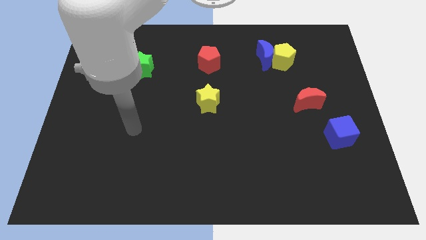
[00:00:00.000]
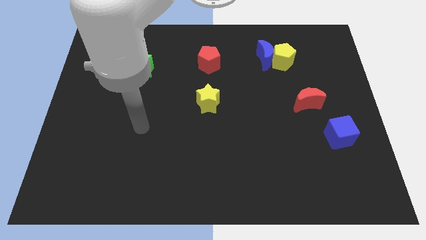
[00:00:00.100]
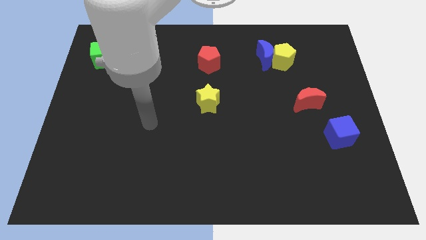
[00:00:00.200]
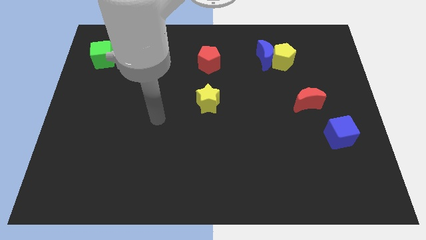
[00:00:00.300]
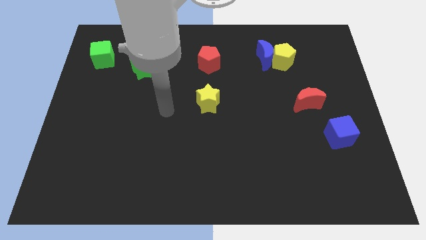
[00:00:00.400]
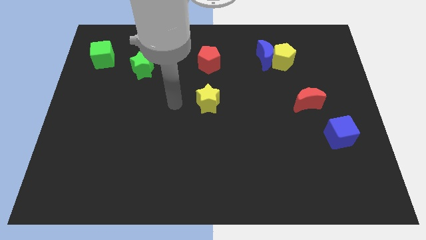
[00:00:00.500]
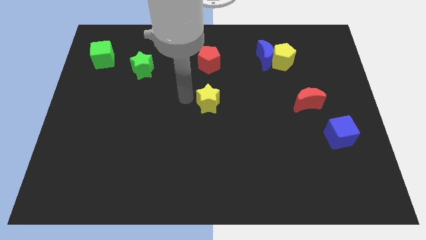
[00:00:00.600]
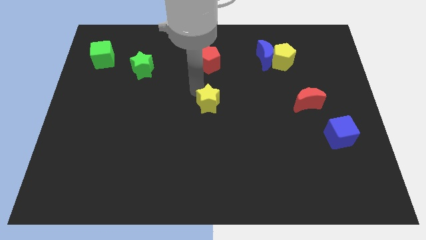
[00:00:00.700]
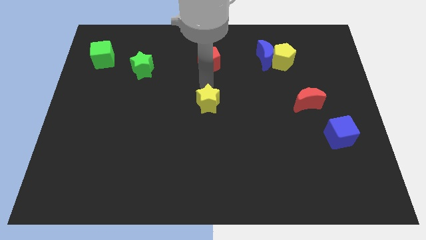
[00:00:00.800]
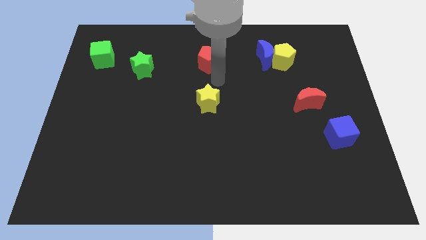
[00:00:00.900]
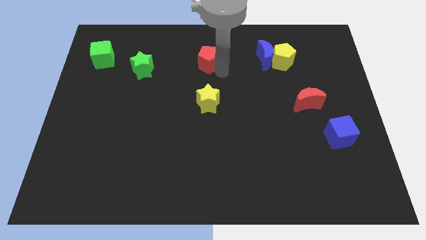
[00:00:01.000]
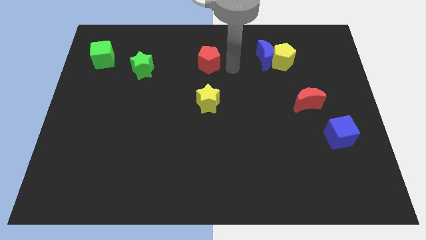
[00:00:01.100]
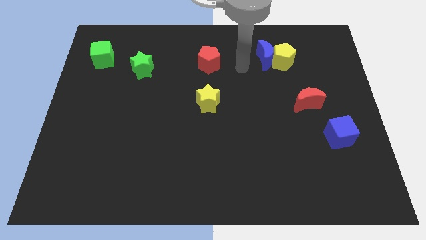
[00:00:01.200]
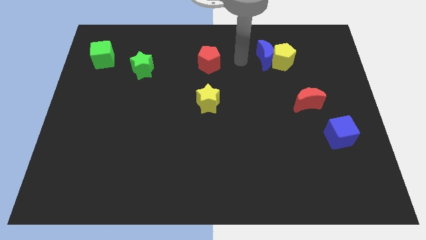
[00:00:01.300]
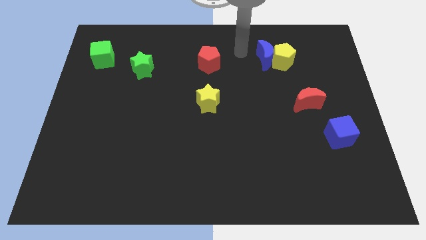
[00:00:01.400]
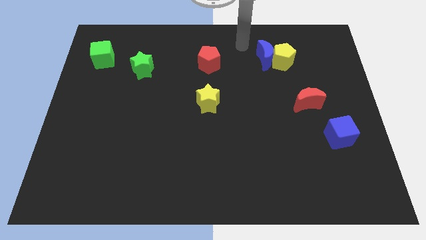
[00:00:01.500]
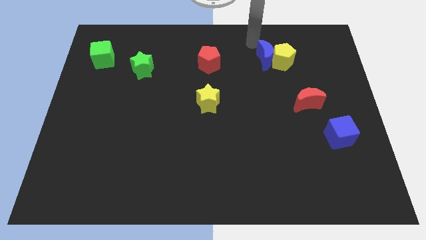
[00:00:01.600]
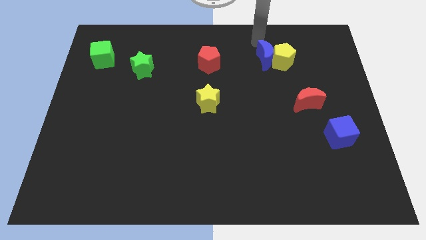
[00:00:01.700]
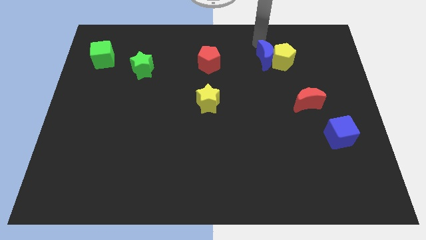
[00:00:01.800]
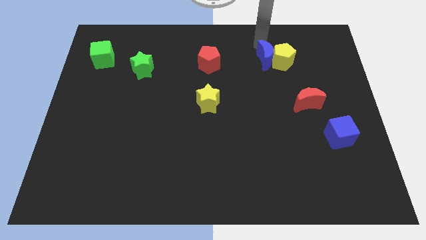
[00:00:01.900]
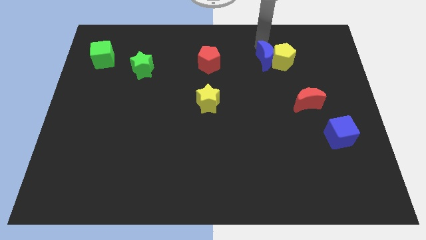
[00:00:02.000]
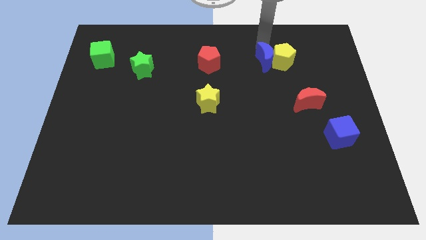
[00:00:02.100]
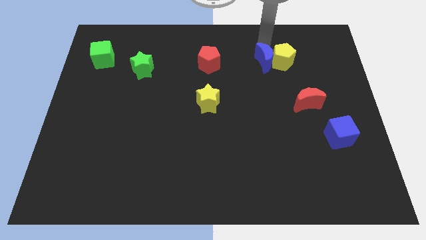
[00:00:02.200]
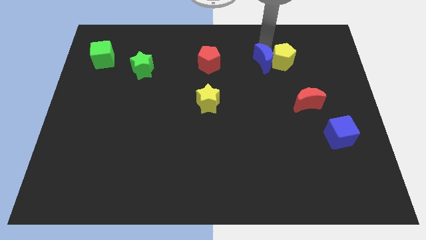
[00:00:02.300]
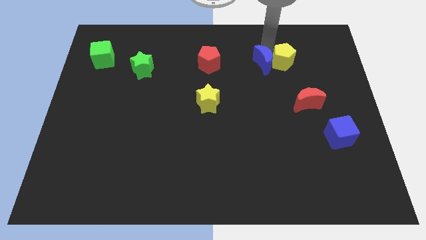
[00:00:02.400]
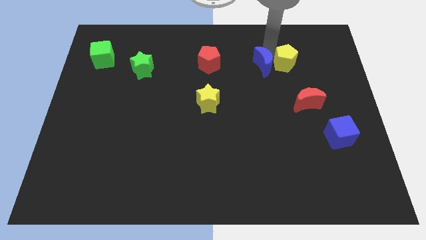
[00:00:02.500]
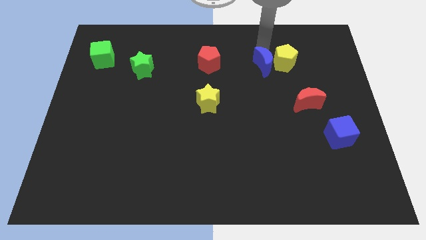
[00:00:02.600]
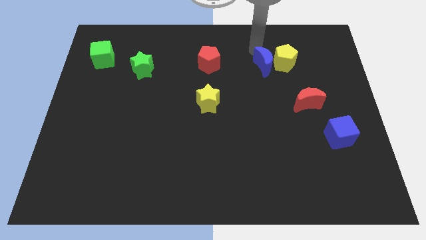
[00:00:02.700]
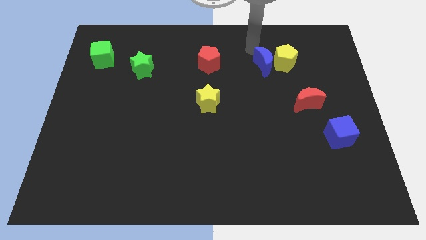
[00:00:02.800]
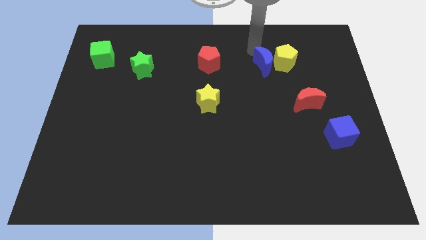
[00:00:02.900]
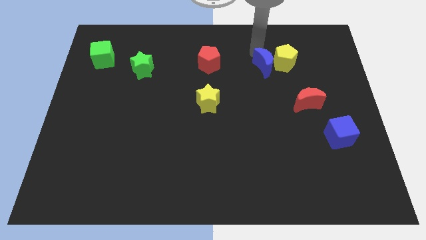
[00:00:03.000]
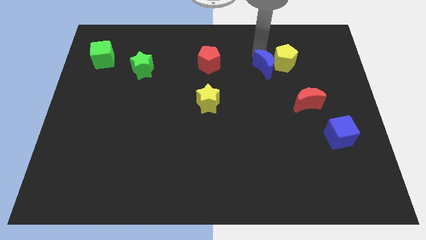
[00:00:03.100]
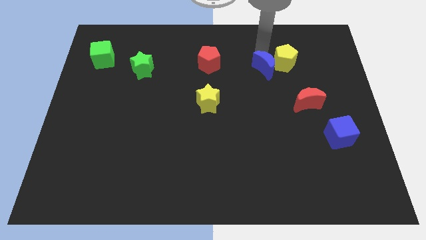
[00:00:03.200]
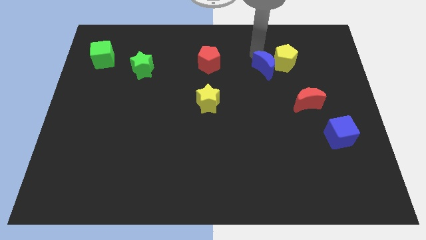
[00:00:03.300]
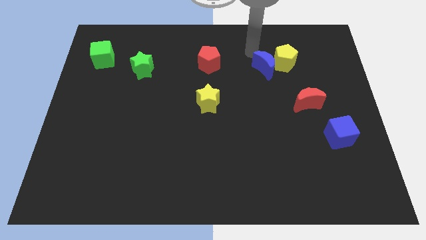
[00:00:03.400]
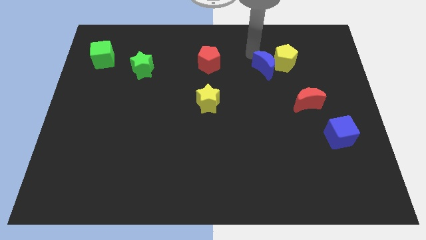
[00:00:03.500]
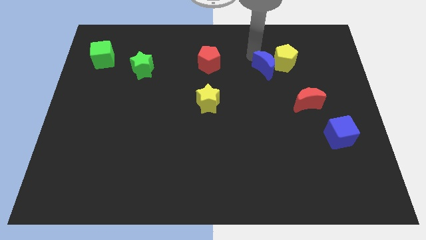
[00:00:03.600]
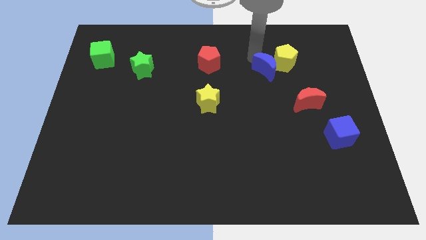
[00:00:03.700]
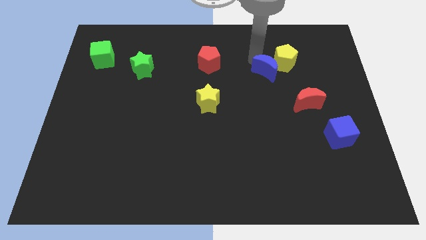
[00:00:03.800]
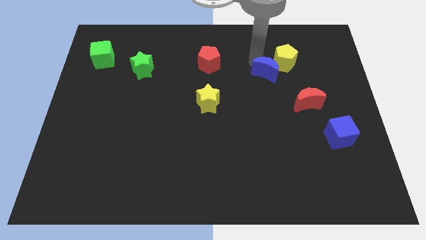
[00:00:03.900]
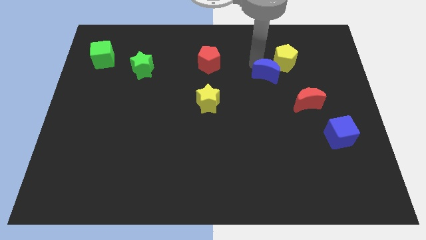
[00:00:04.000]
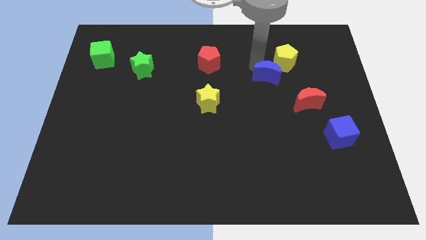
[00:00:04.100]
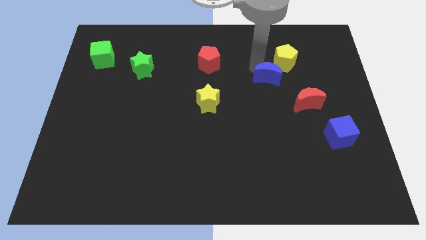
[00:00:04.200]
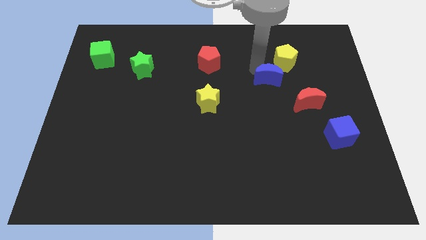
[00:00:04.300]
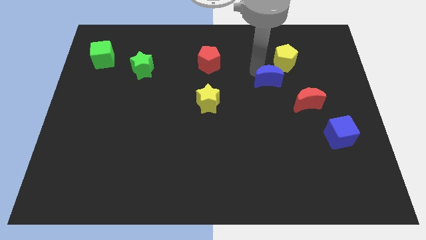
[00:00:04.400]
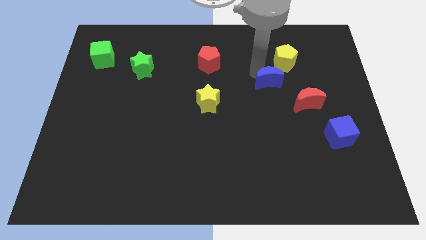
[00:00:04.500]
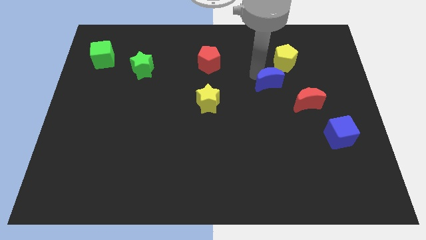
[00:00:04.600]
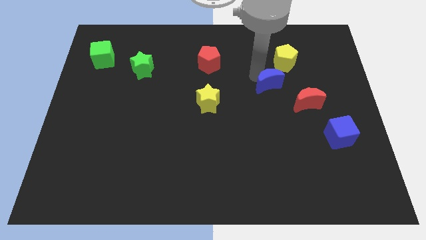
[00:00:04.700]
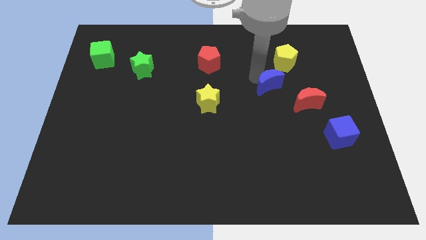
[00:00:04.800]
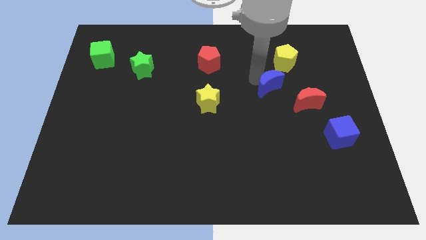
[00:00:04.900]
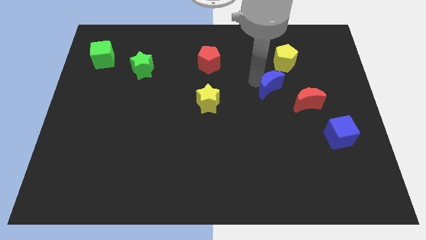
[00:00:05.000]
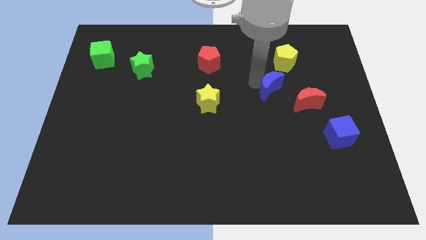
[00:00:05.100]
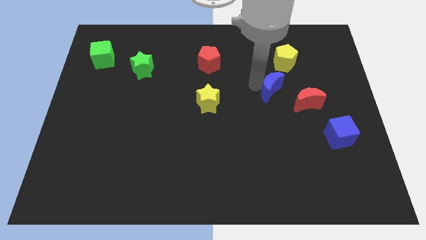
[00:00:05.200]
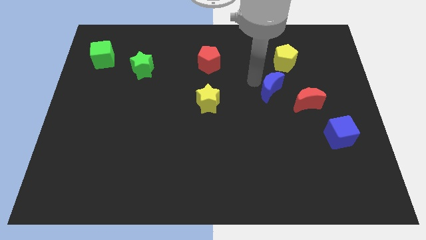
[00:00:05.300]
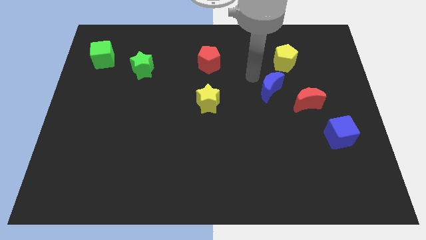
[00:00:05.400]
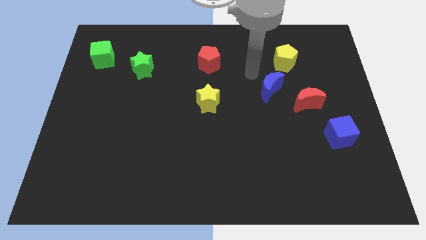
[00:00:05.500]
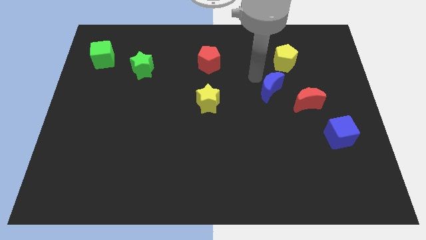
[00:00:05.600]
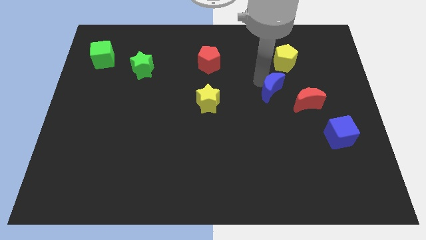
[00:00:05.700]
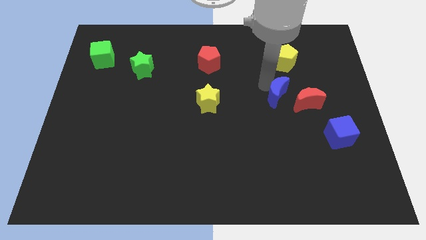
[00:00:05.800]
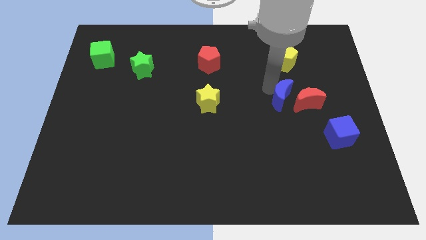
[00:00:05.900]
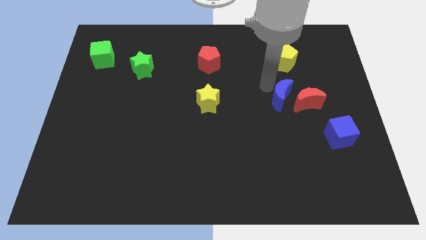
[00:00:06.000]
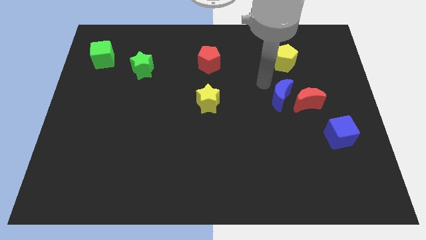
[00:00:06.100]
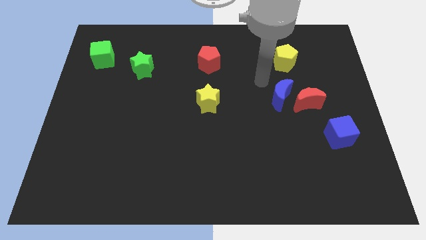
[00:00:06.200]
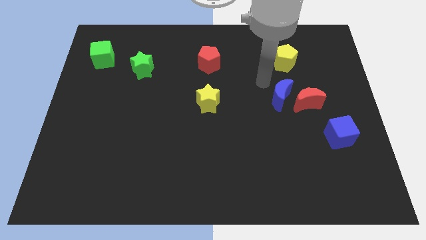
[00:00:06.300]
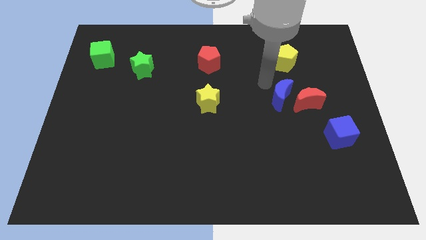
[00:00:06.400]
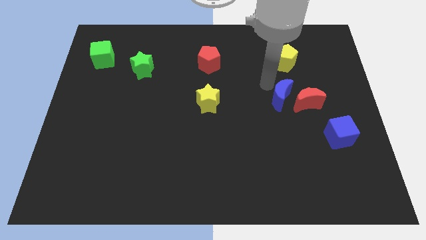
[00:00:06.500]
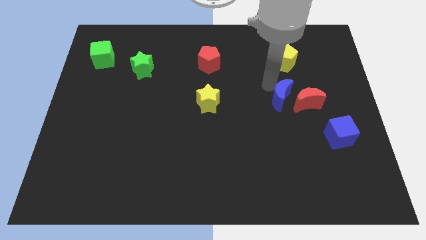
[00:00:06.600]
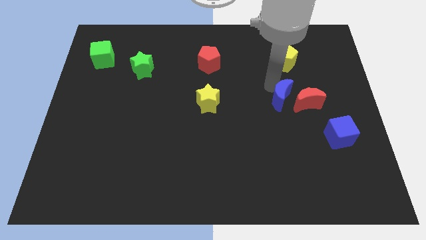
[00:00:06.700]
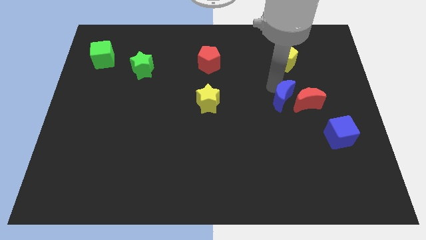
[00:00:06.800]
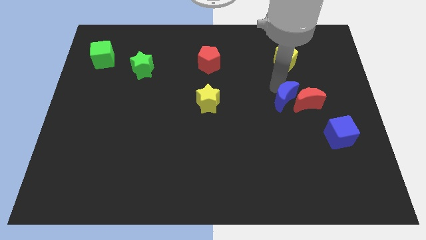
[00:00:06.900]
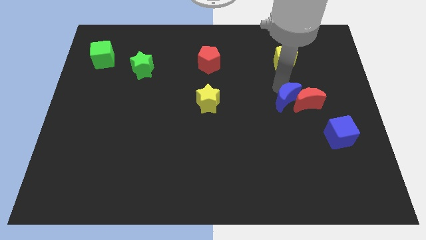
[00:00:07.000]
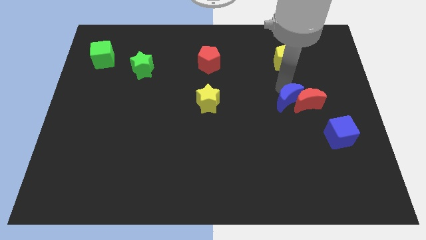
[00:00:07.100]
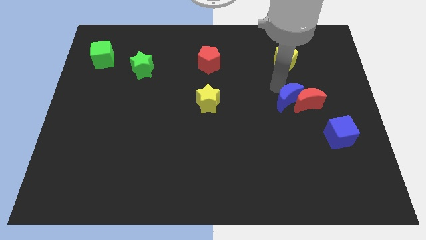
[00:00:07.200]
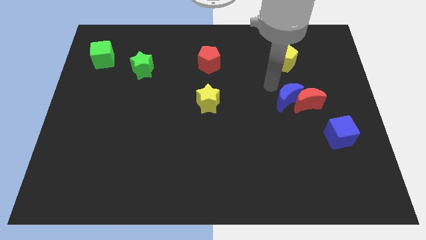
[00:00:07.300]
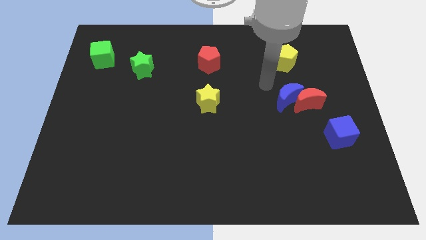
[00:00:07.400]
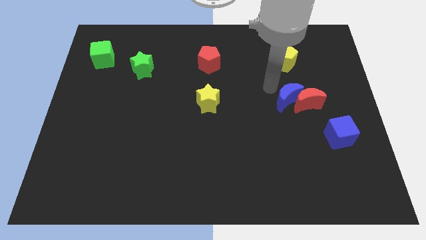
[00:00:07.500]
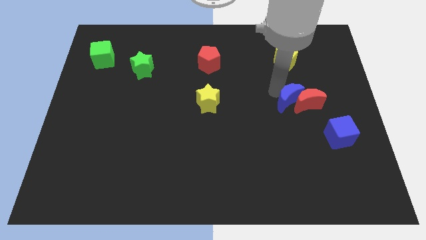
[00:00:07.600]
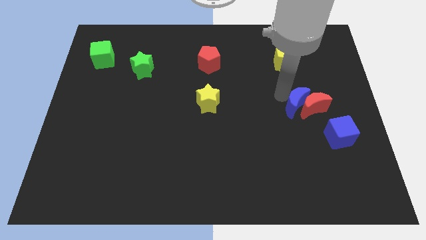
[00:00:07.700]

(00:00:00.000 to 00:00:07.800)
move the blue moon to the top left side of the blue cube
